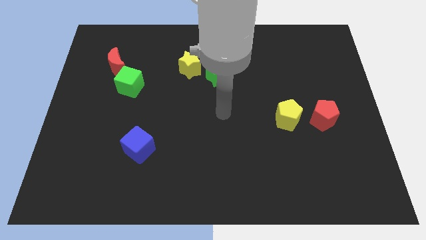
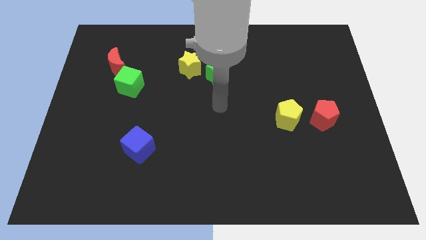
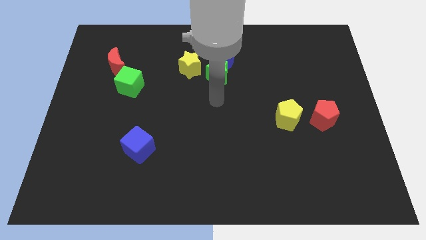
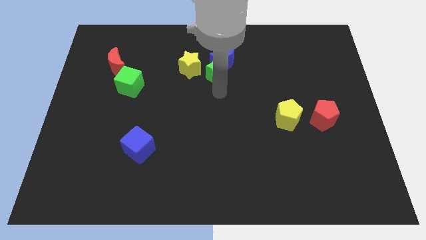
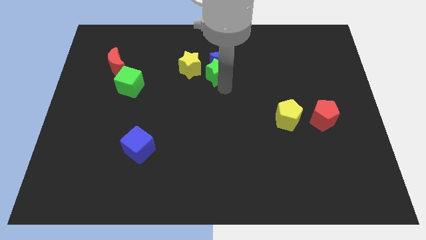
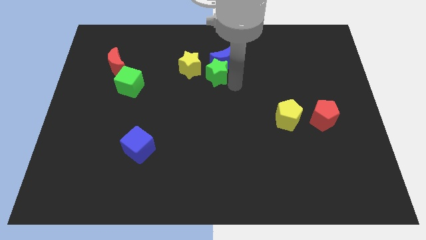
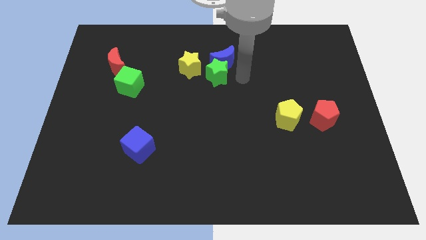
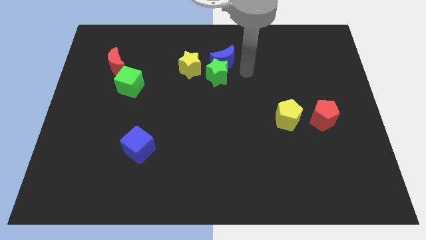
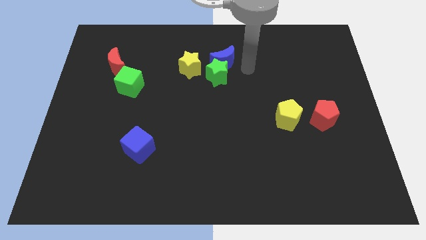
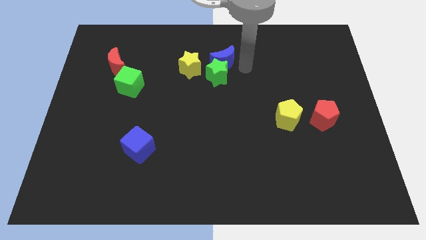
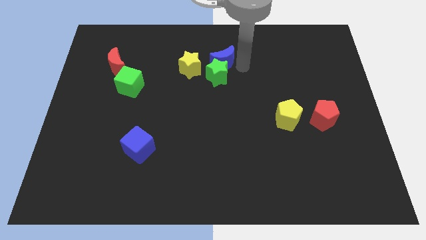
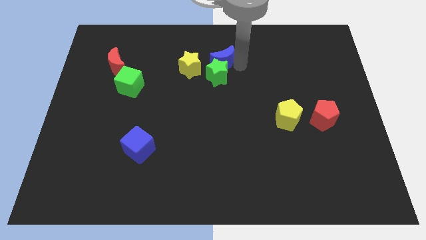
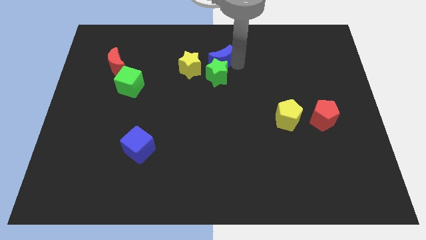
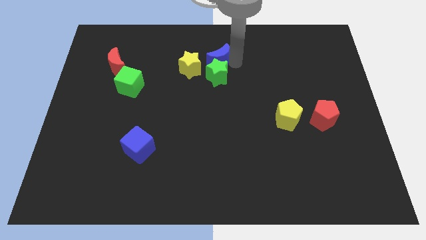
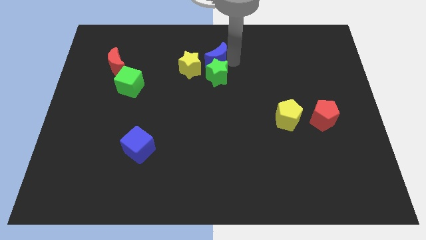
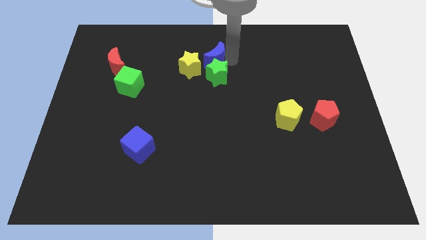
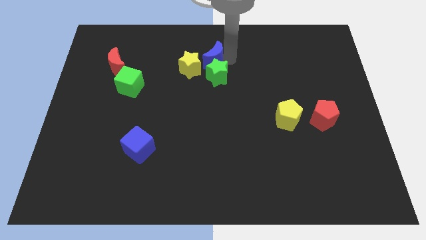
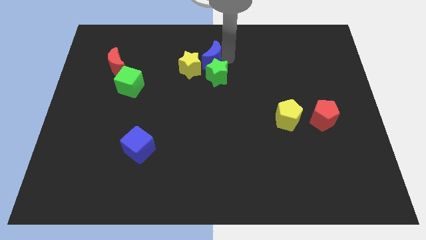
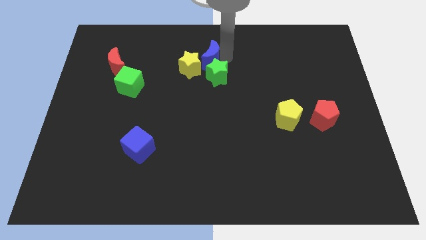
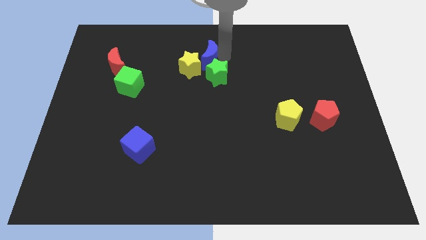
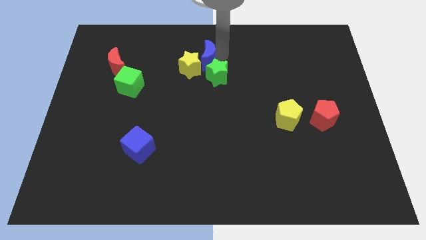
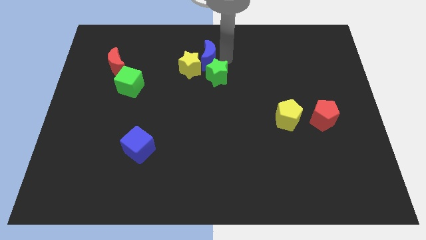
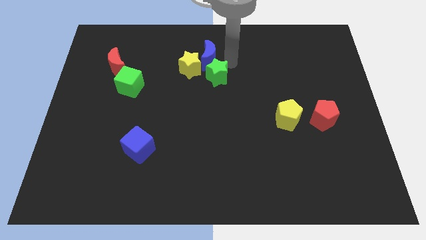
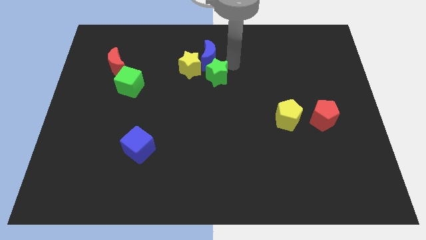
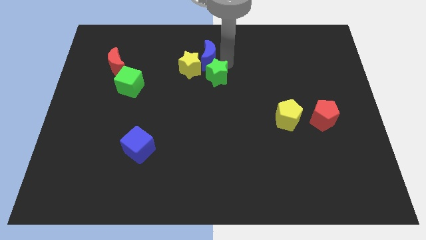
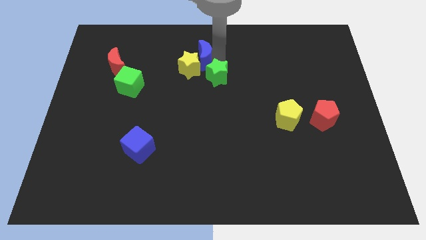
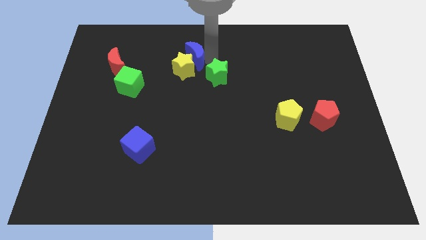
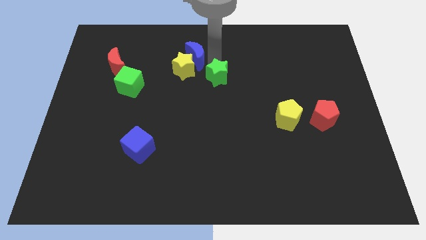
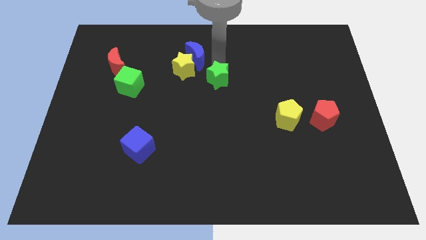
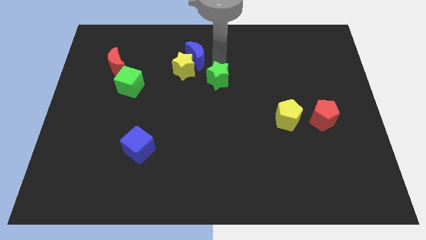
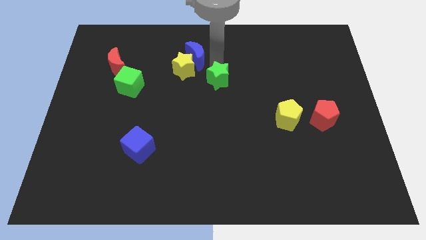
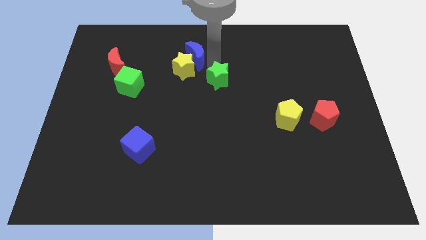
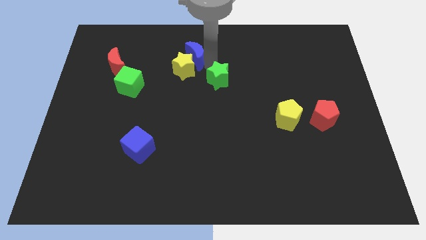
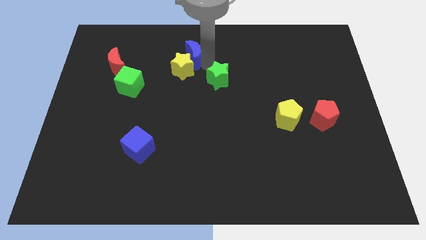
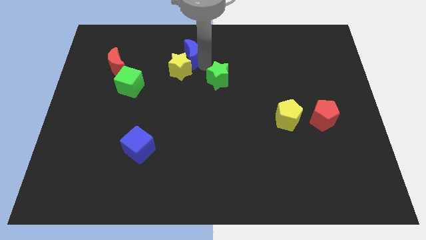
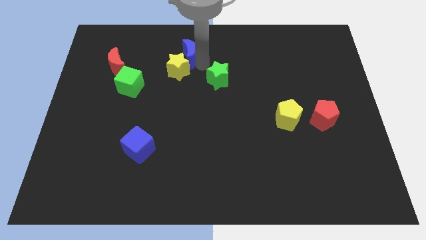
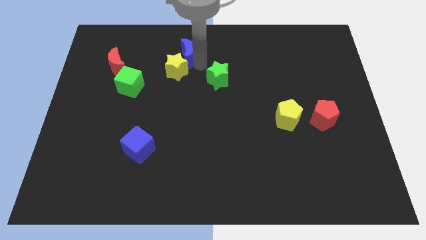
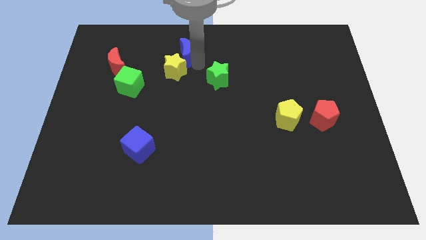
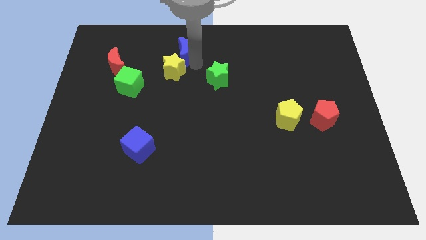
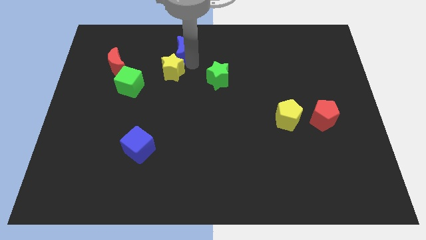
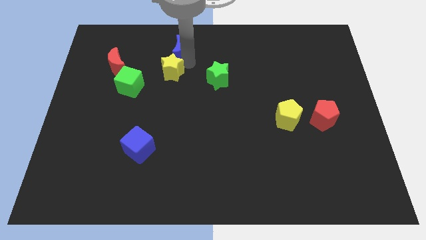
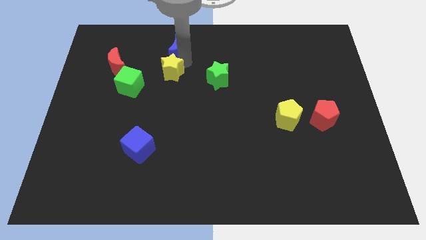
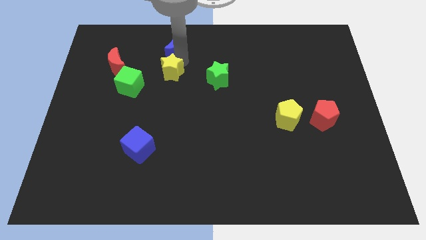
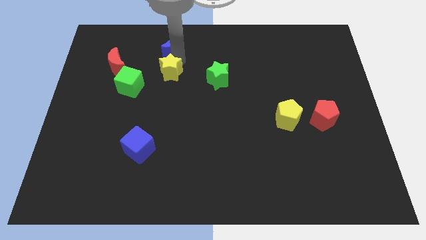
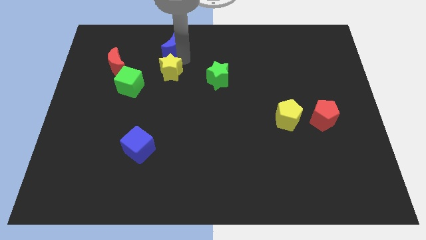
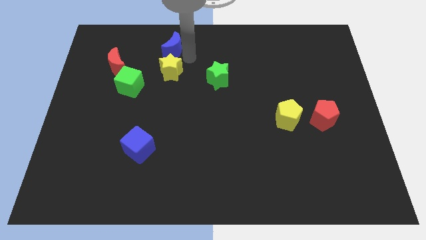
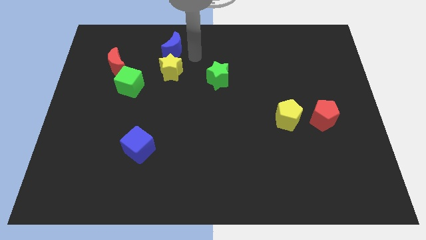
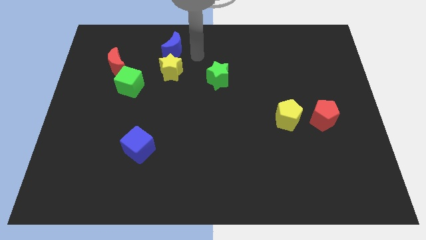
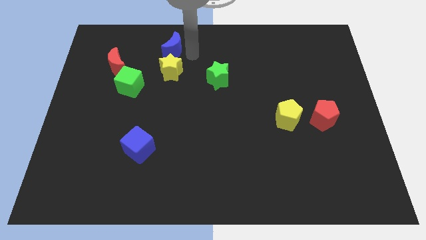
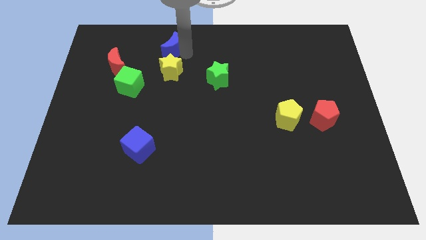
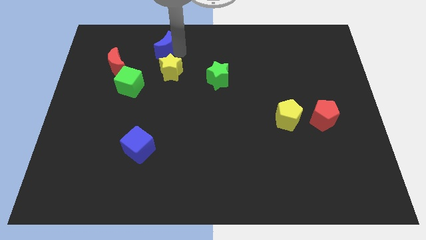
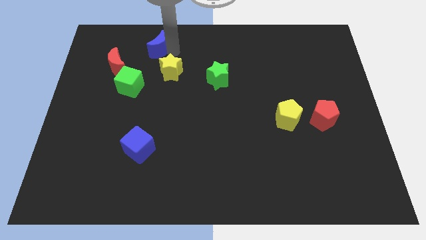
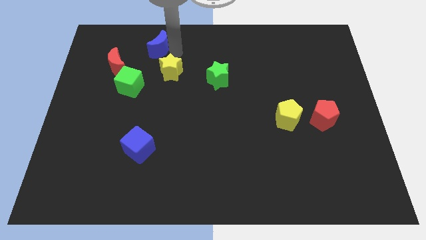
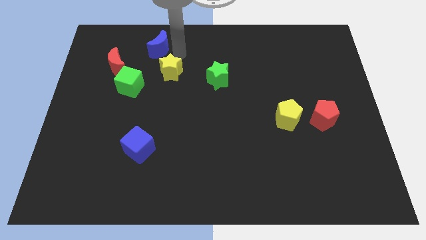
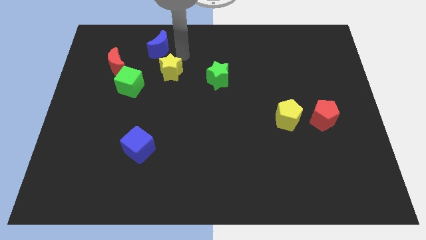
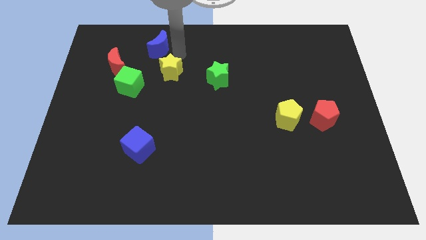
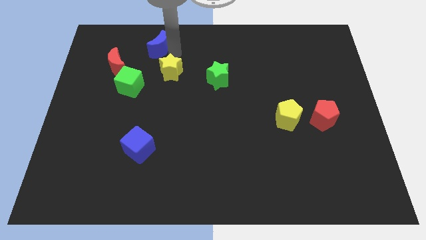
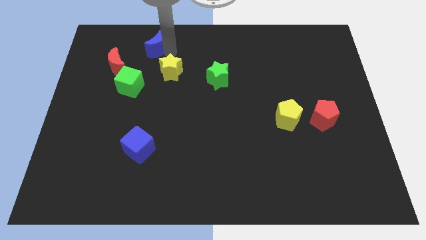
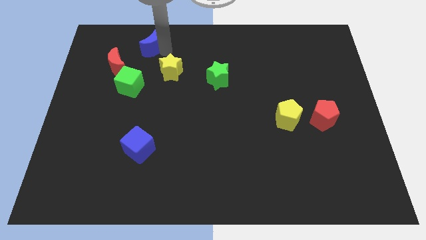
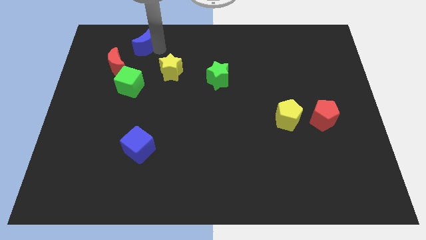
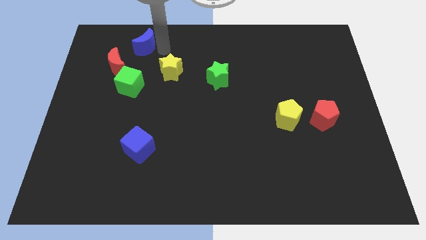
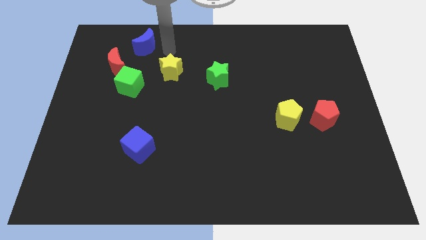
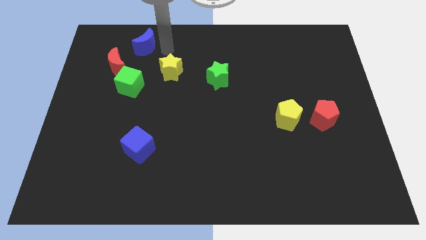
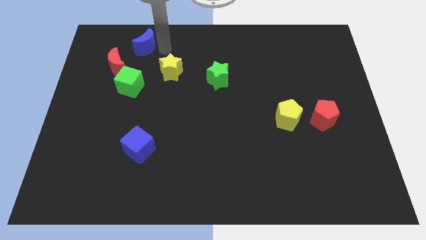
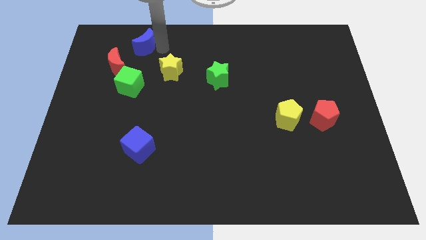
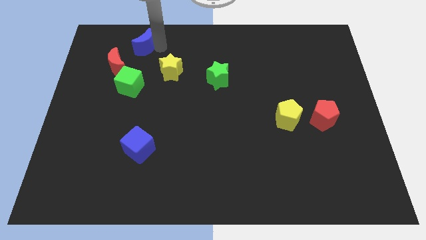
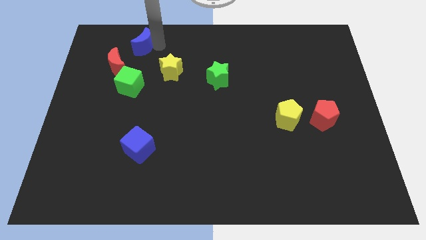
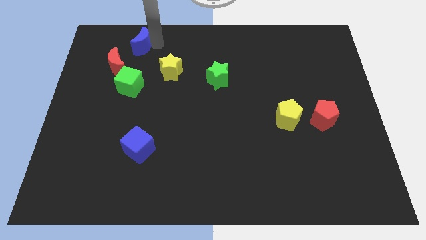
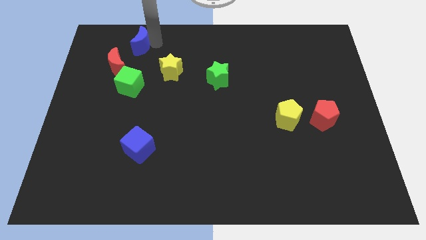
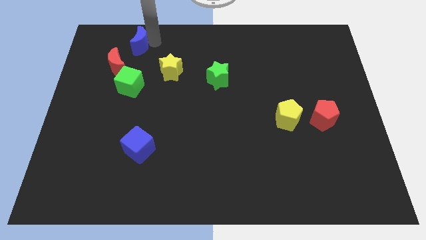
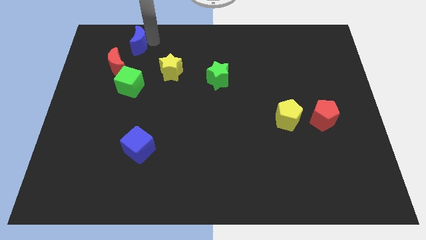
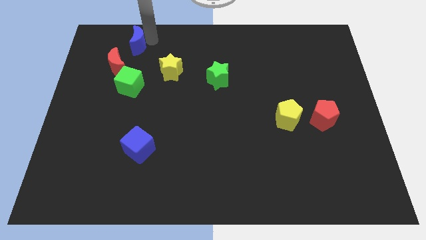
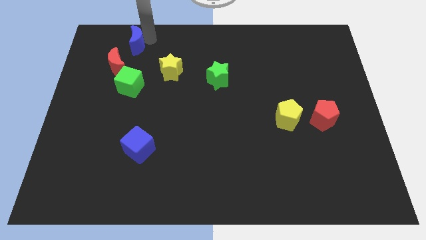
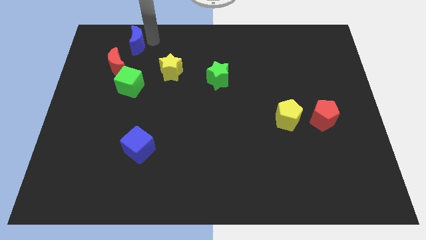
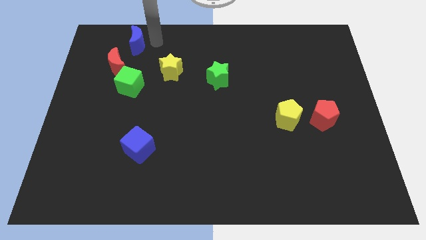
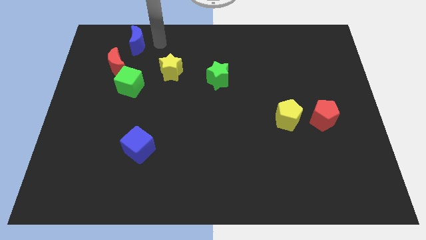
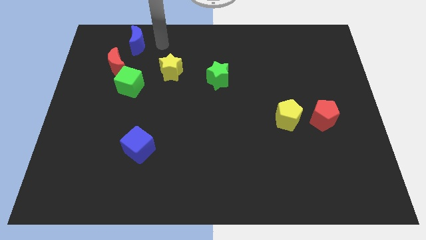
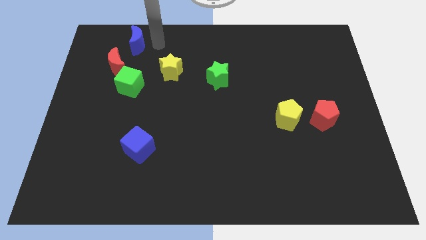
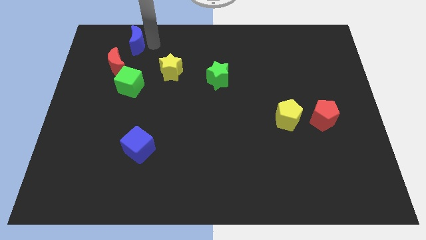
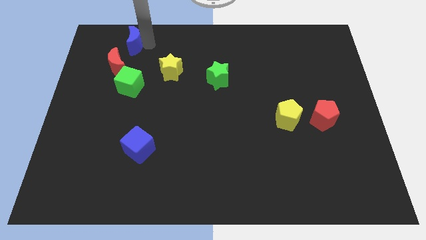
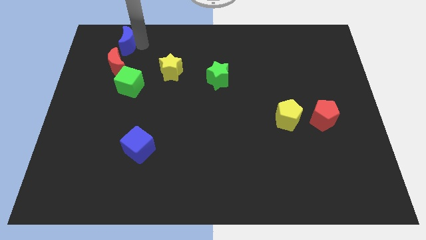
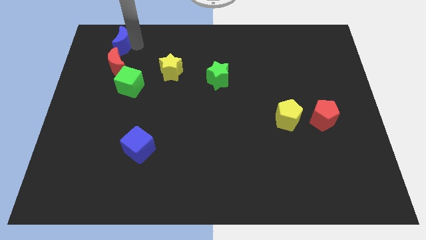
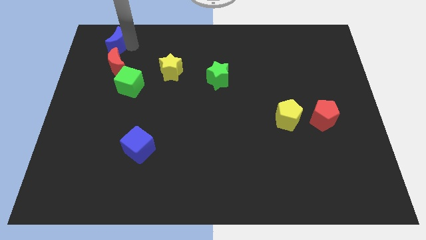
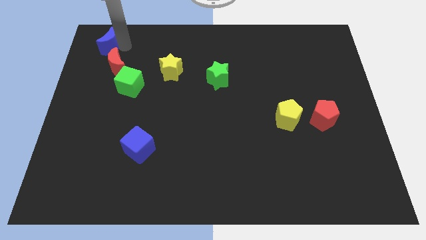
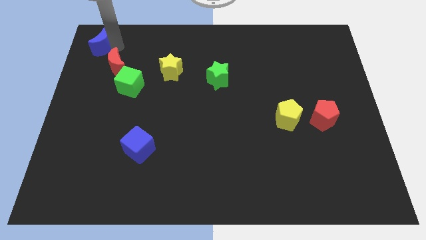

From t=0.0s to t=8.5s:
put the blue moon to the top left
